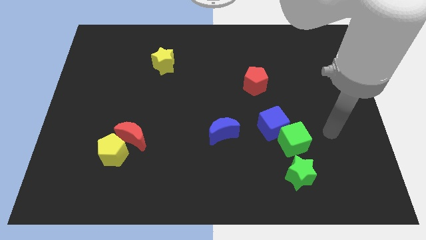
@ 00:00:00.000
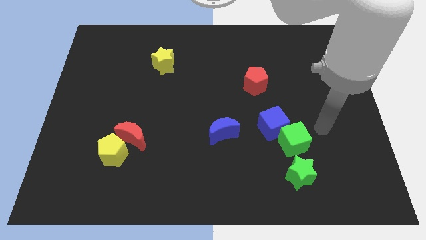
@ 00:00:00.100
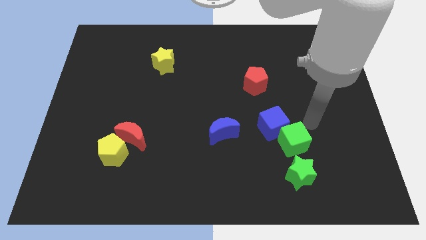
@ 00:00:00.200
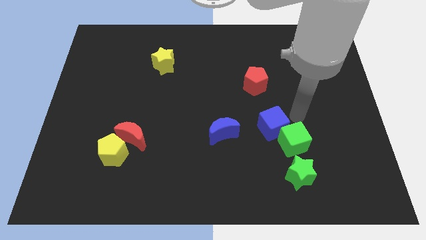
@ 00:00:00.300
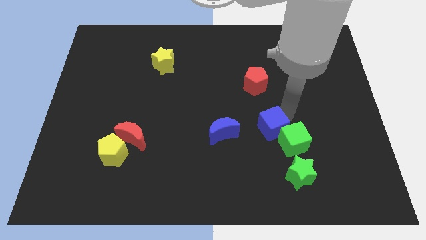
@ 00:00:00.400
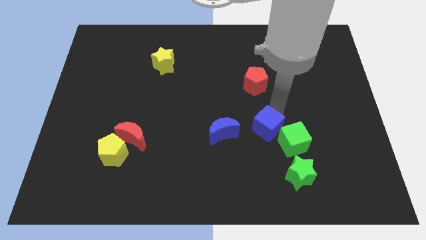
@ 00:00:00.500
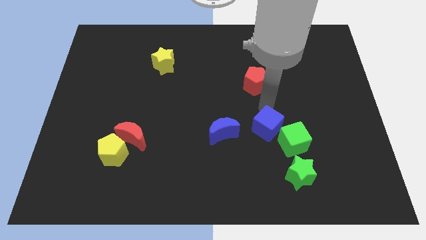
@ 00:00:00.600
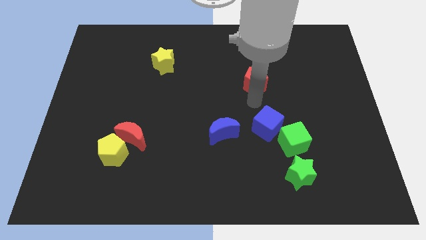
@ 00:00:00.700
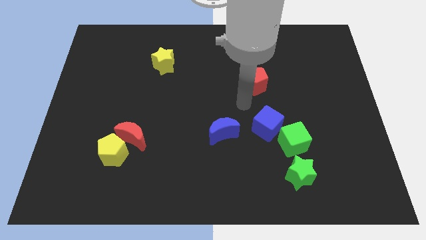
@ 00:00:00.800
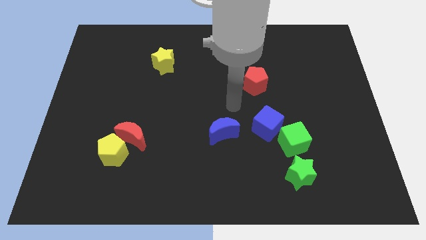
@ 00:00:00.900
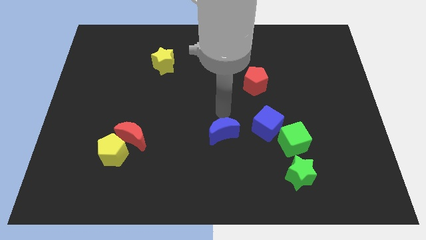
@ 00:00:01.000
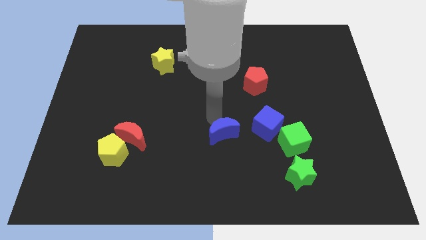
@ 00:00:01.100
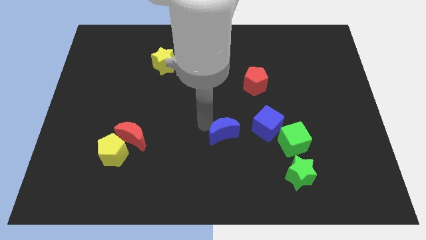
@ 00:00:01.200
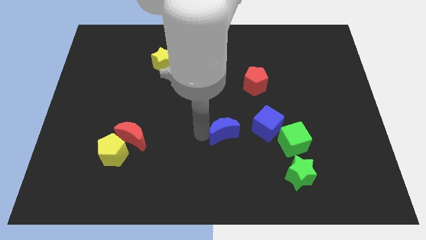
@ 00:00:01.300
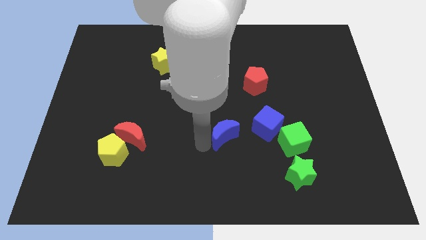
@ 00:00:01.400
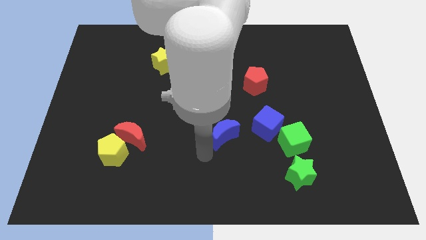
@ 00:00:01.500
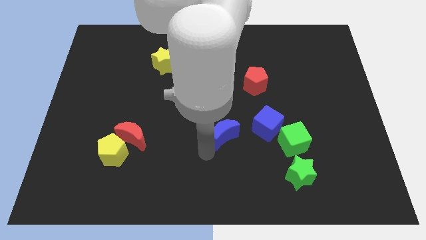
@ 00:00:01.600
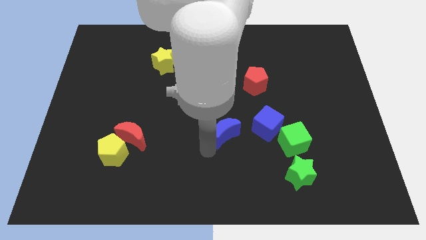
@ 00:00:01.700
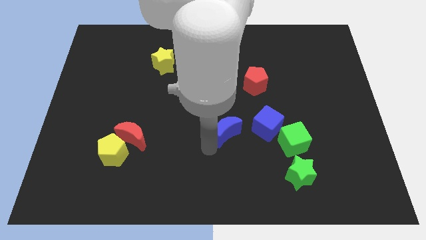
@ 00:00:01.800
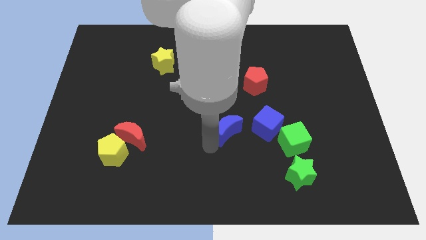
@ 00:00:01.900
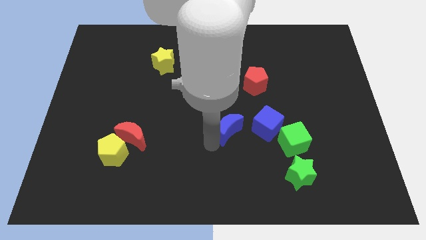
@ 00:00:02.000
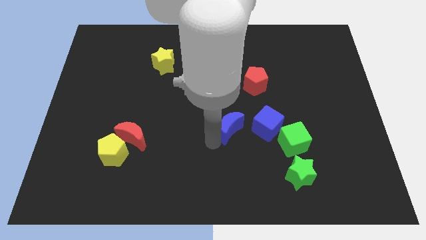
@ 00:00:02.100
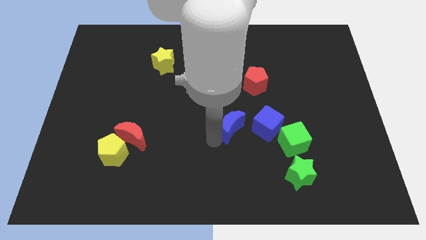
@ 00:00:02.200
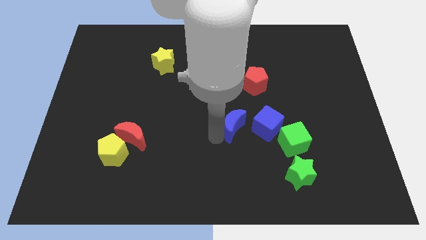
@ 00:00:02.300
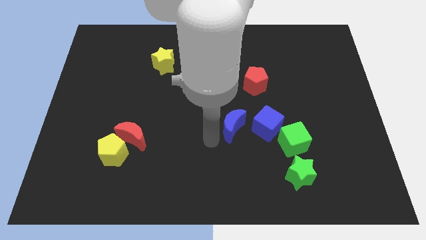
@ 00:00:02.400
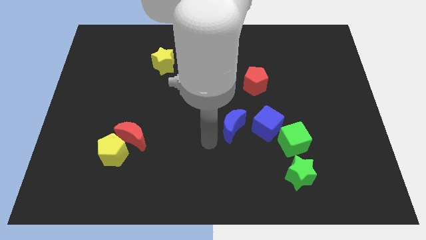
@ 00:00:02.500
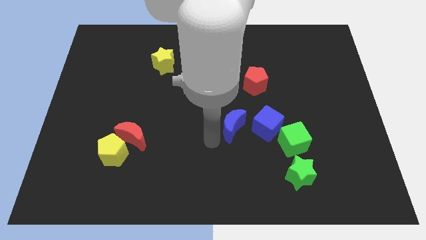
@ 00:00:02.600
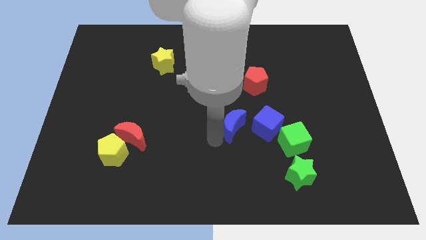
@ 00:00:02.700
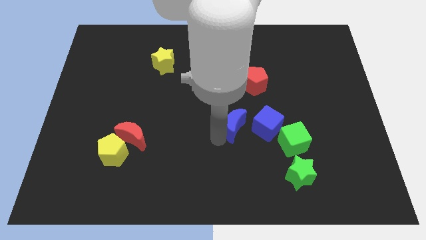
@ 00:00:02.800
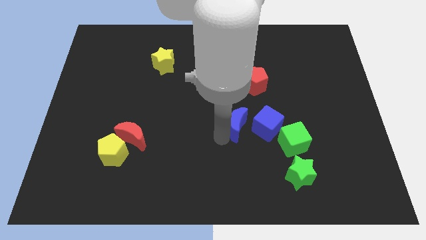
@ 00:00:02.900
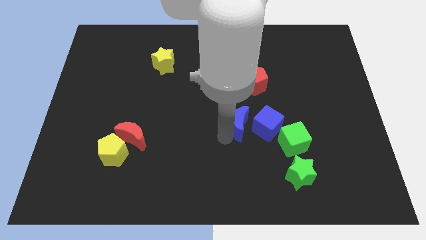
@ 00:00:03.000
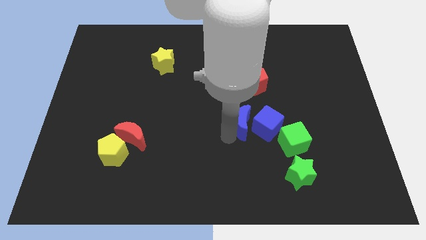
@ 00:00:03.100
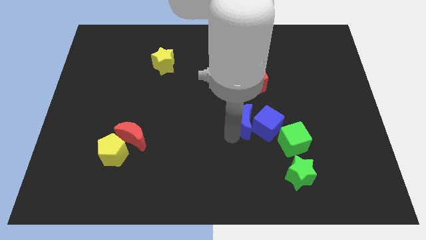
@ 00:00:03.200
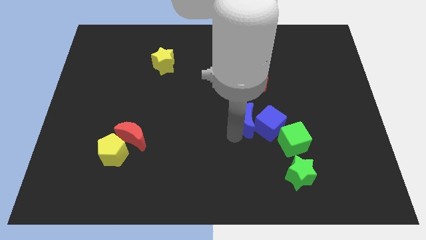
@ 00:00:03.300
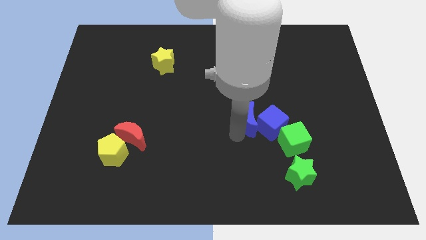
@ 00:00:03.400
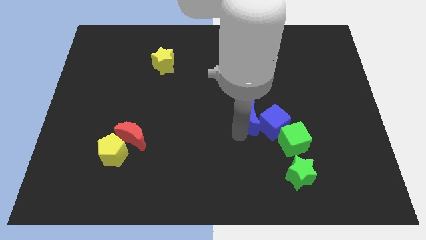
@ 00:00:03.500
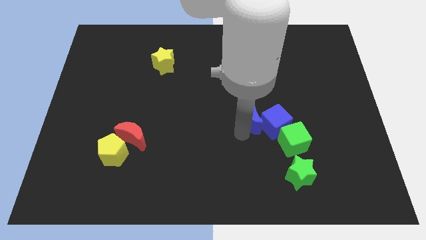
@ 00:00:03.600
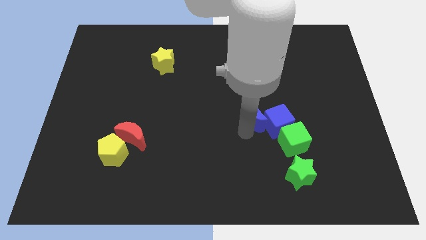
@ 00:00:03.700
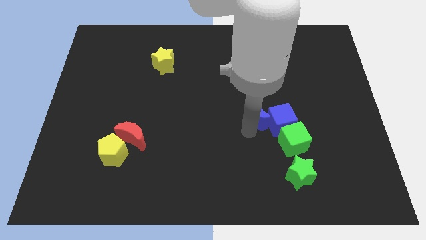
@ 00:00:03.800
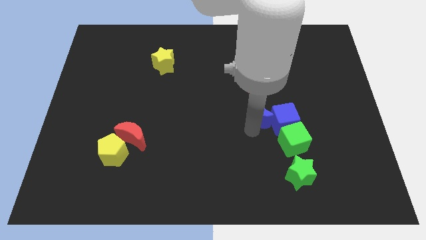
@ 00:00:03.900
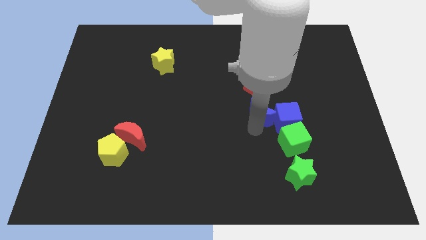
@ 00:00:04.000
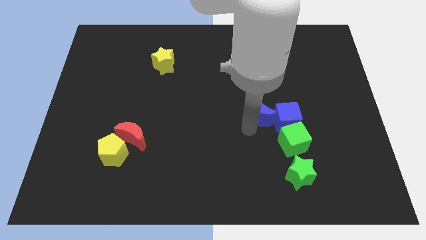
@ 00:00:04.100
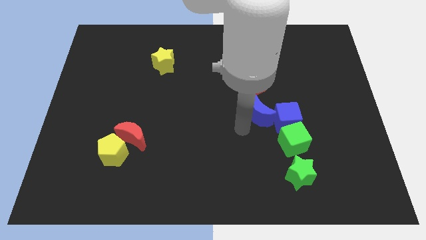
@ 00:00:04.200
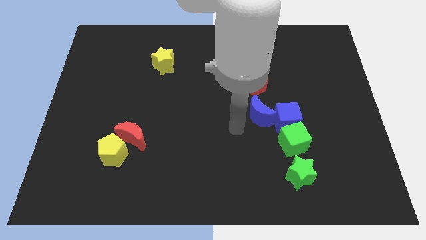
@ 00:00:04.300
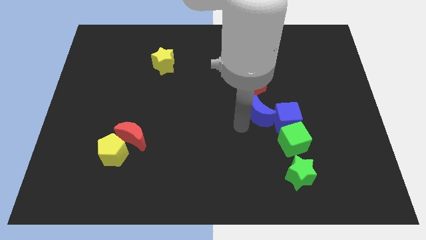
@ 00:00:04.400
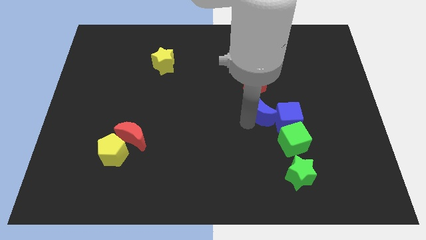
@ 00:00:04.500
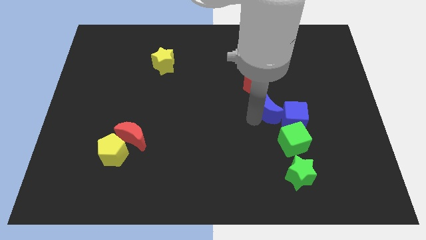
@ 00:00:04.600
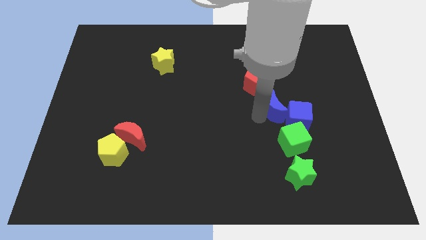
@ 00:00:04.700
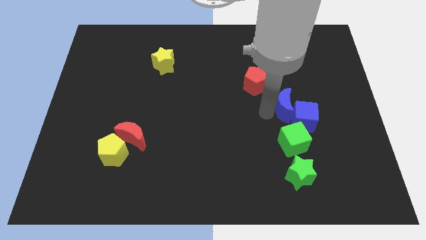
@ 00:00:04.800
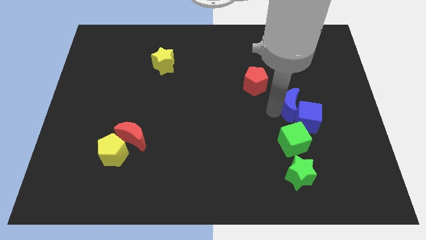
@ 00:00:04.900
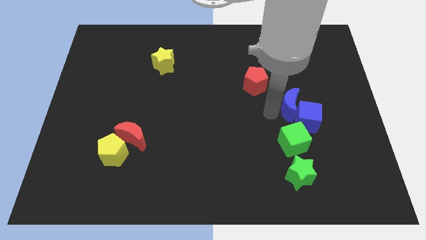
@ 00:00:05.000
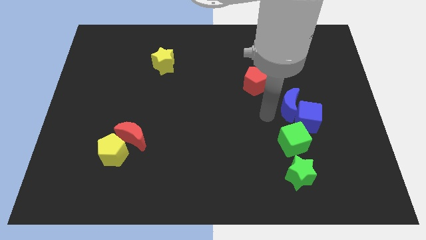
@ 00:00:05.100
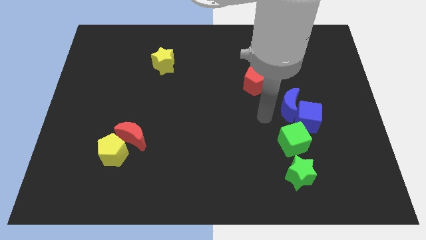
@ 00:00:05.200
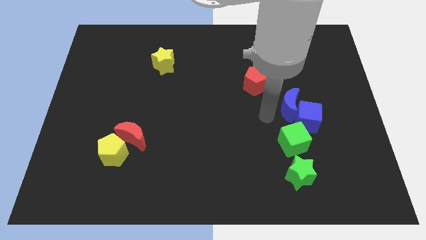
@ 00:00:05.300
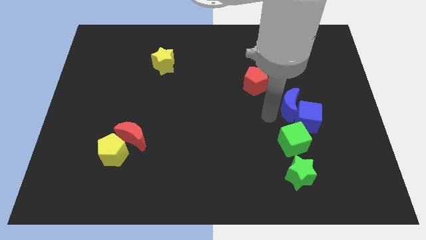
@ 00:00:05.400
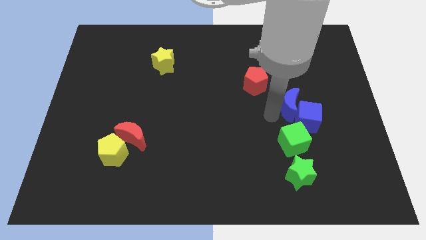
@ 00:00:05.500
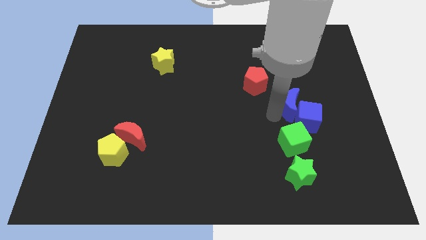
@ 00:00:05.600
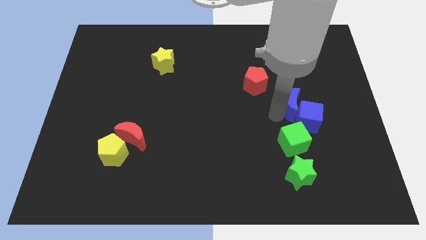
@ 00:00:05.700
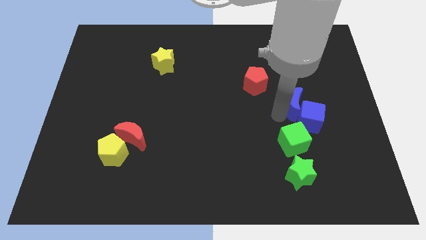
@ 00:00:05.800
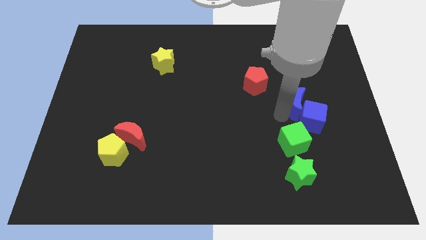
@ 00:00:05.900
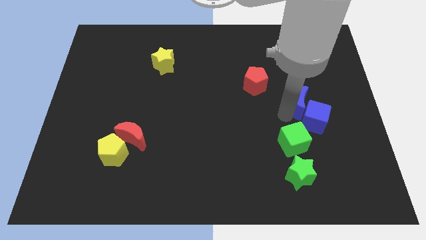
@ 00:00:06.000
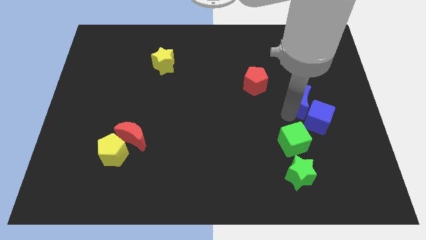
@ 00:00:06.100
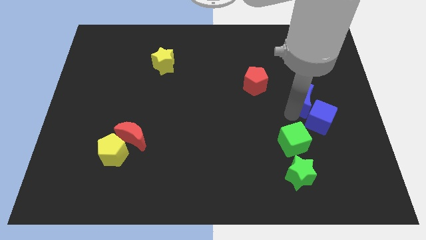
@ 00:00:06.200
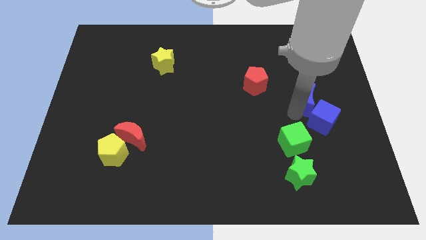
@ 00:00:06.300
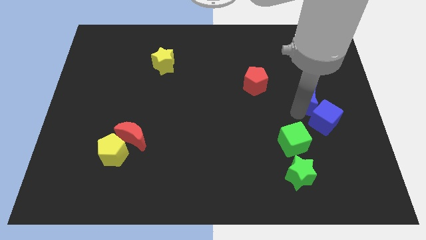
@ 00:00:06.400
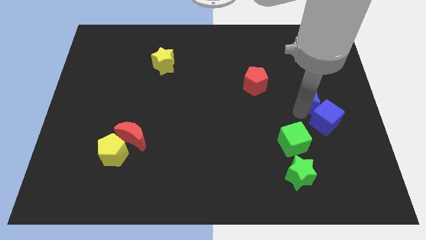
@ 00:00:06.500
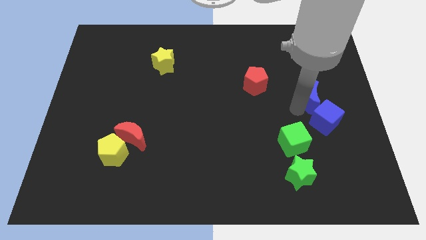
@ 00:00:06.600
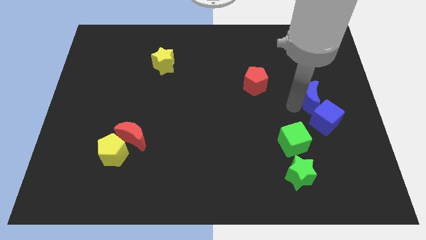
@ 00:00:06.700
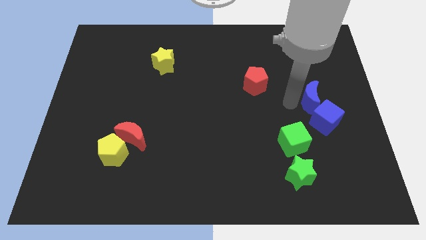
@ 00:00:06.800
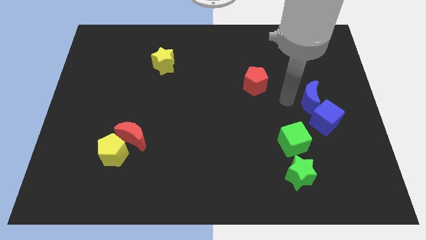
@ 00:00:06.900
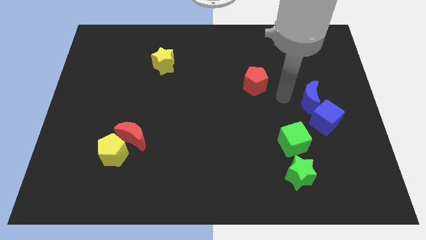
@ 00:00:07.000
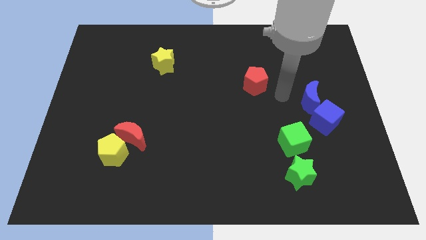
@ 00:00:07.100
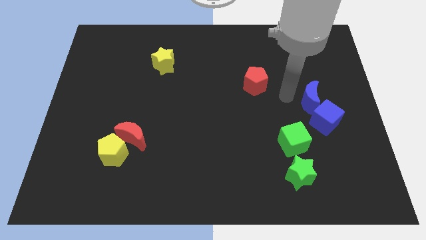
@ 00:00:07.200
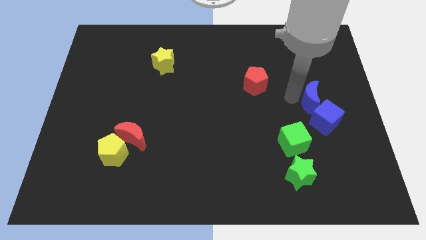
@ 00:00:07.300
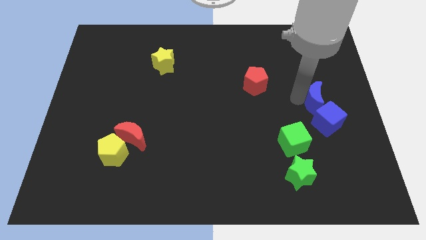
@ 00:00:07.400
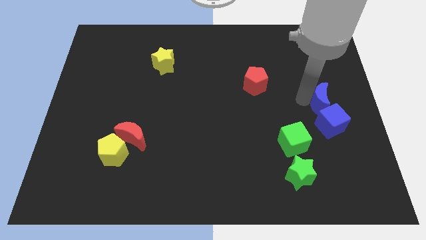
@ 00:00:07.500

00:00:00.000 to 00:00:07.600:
push the blue moon to the center right
